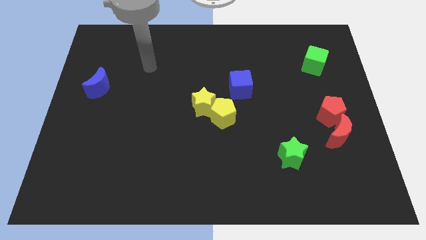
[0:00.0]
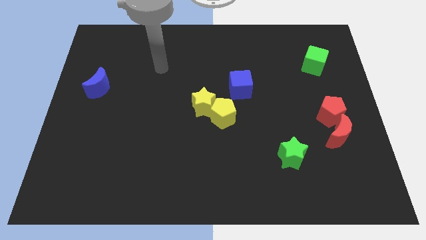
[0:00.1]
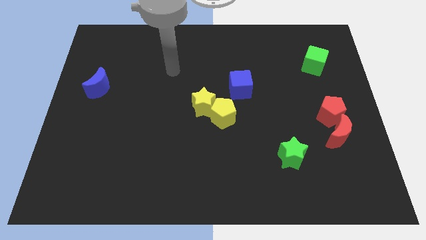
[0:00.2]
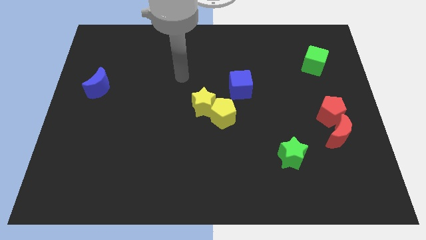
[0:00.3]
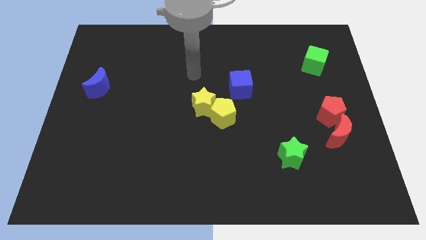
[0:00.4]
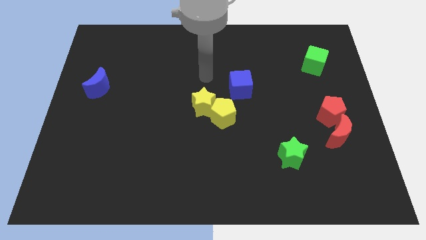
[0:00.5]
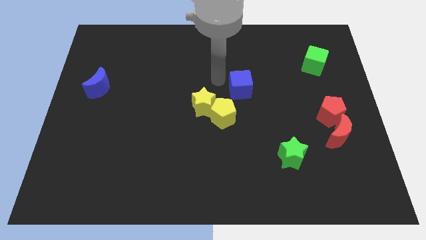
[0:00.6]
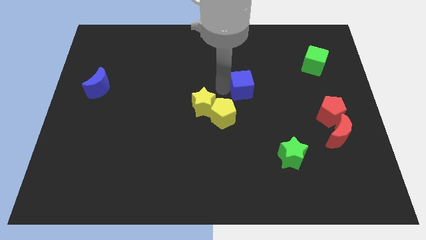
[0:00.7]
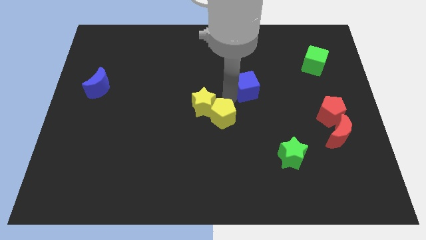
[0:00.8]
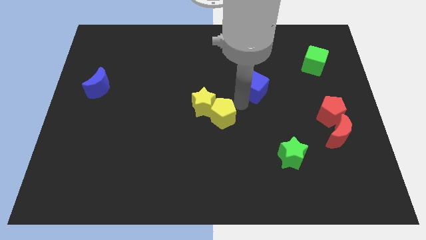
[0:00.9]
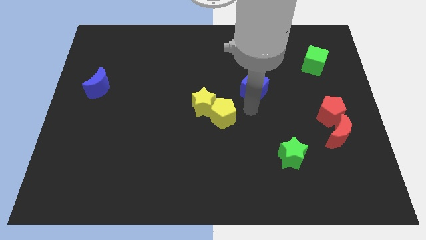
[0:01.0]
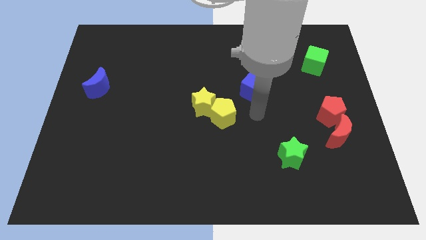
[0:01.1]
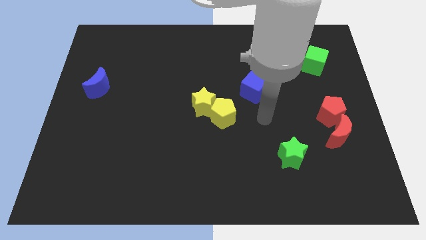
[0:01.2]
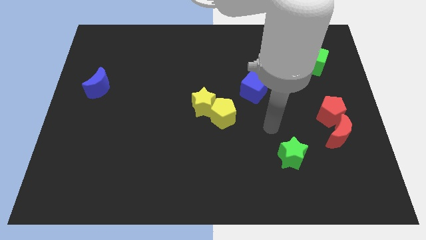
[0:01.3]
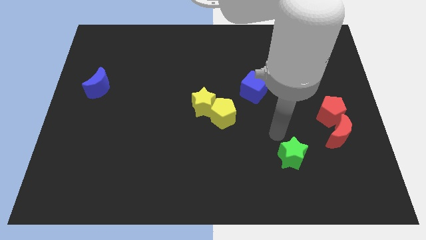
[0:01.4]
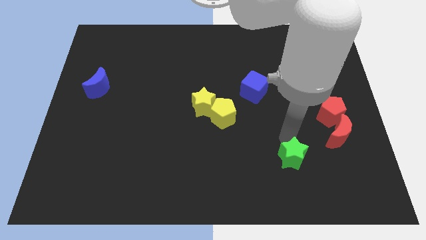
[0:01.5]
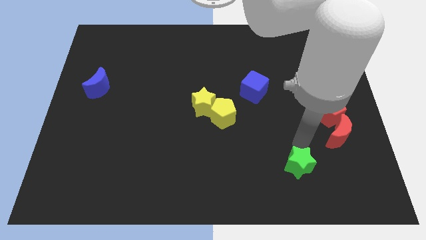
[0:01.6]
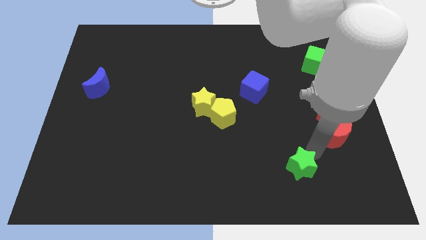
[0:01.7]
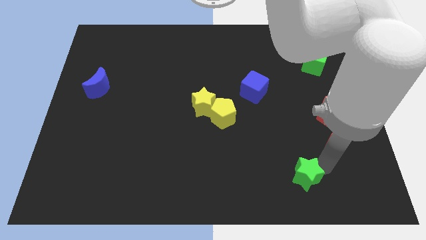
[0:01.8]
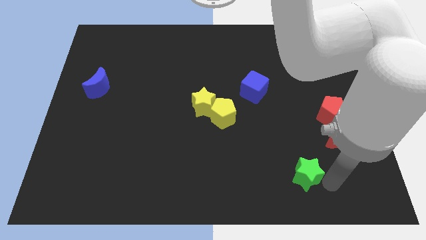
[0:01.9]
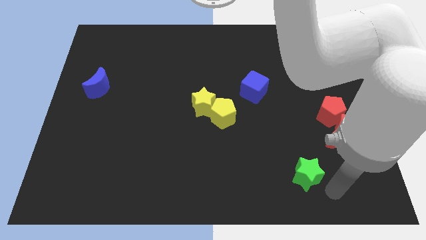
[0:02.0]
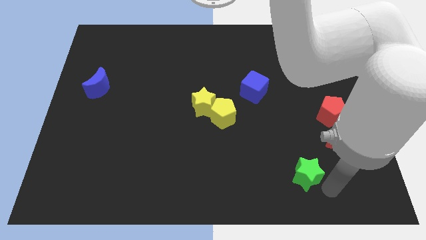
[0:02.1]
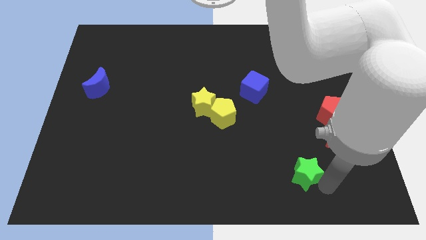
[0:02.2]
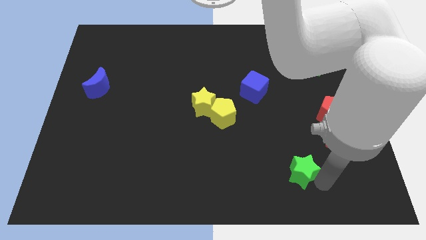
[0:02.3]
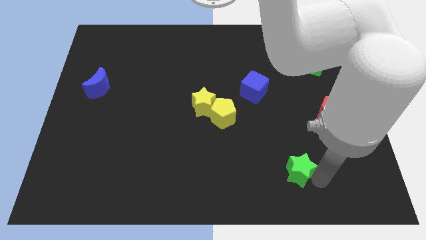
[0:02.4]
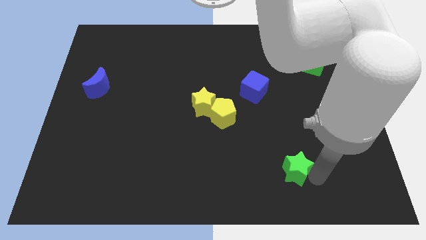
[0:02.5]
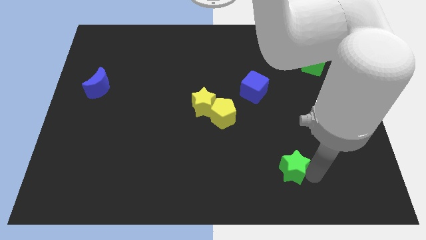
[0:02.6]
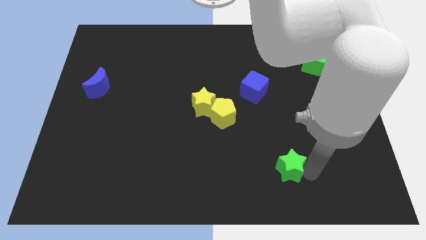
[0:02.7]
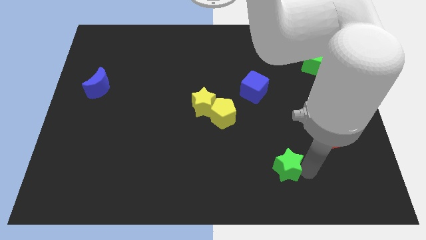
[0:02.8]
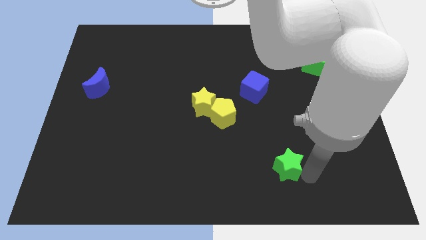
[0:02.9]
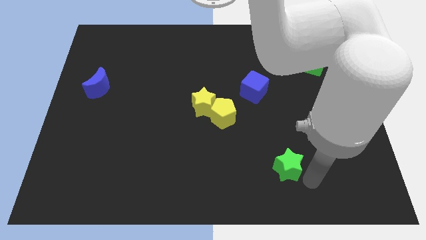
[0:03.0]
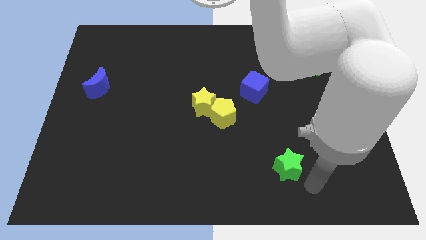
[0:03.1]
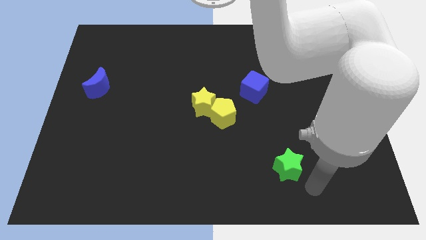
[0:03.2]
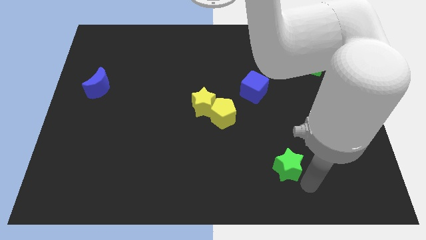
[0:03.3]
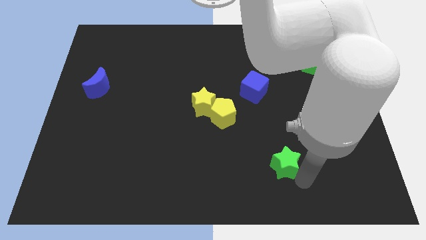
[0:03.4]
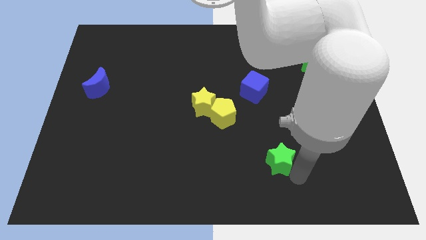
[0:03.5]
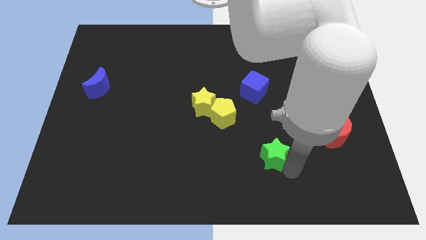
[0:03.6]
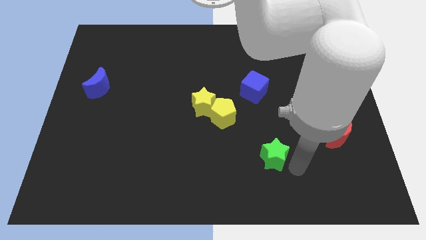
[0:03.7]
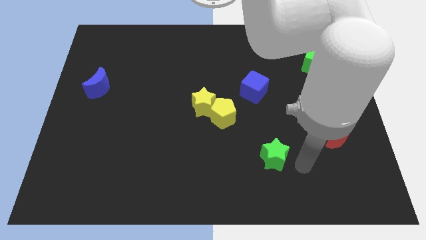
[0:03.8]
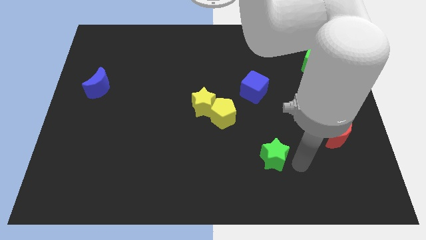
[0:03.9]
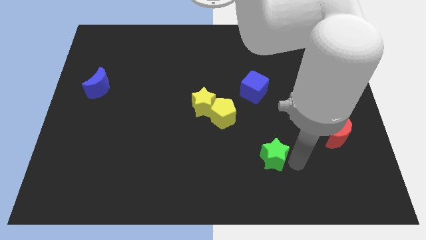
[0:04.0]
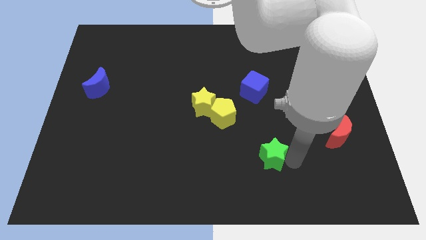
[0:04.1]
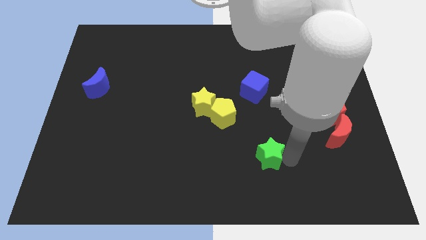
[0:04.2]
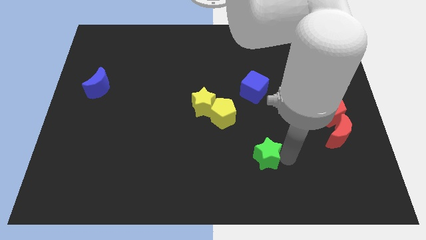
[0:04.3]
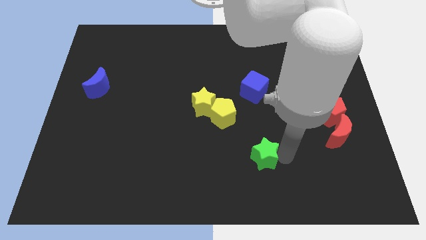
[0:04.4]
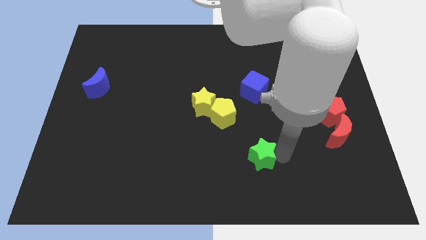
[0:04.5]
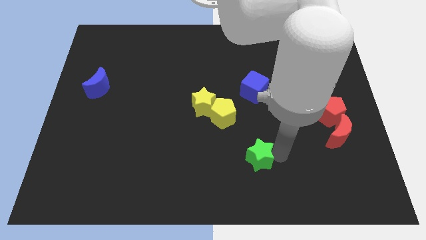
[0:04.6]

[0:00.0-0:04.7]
move the green star slightly to the left

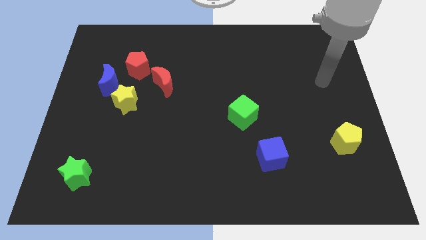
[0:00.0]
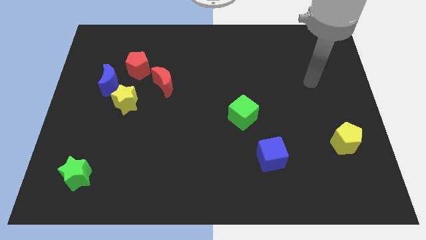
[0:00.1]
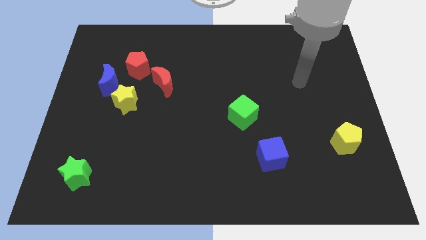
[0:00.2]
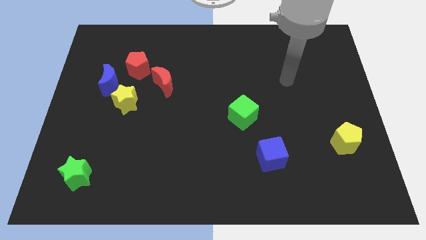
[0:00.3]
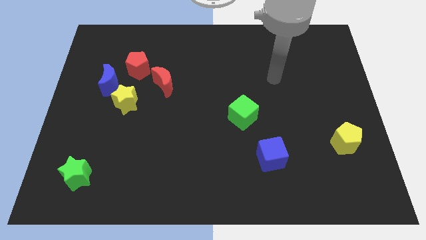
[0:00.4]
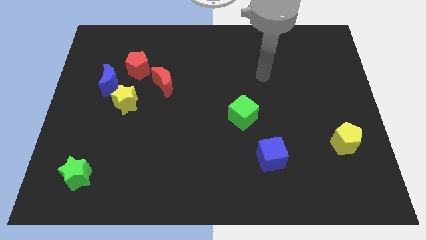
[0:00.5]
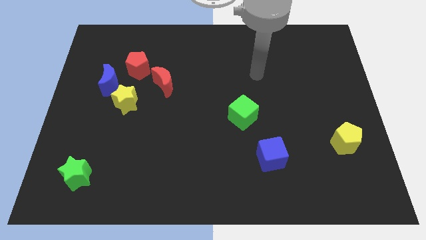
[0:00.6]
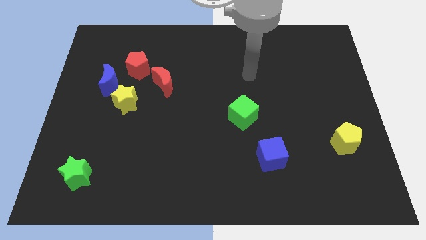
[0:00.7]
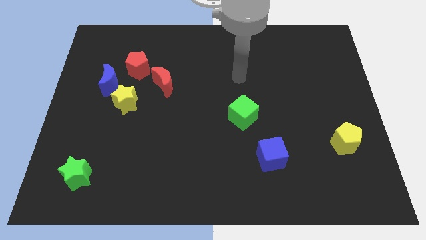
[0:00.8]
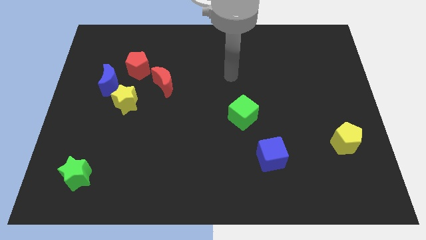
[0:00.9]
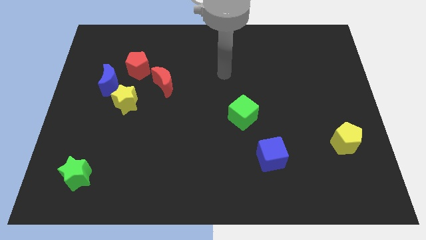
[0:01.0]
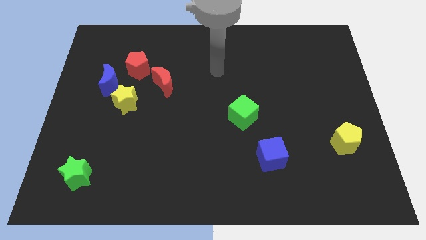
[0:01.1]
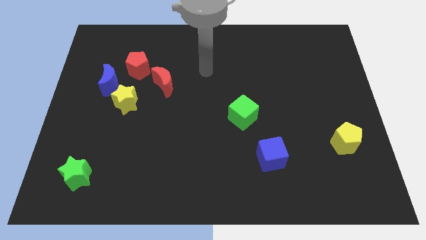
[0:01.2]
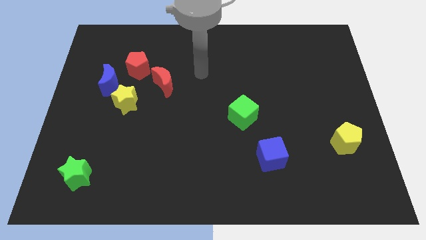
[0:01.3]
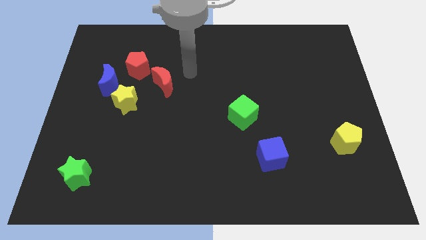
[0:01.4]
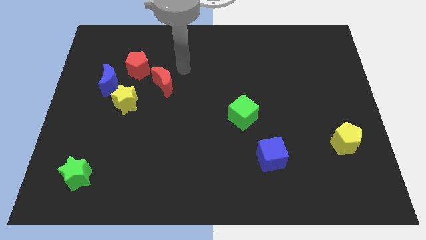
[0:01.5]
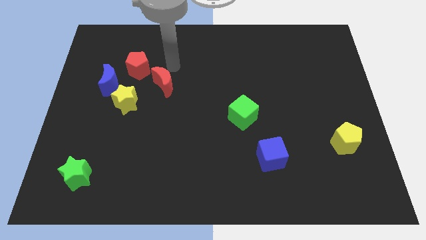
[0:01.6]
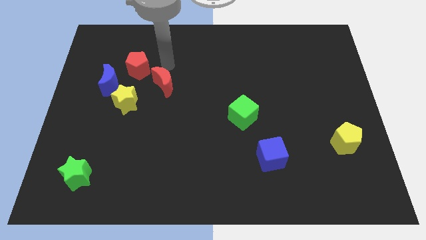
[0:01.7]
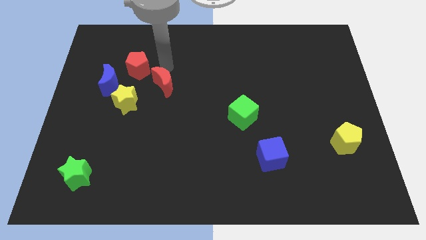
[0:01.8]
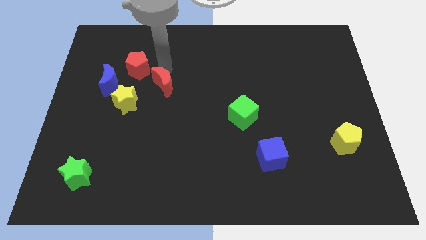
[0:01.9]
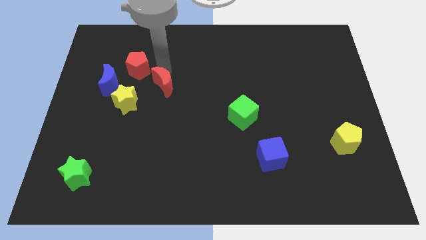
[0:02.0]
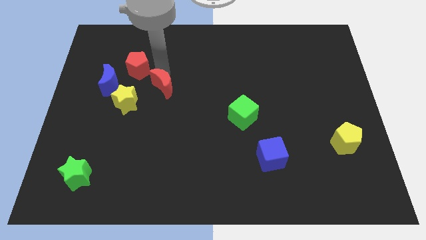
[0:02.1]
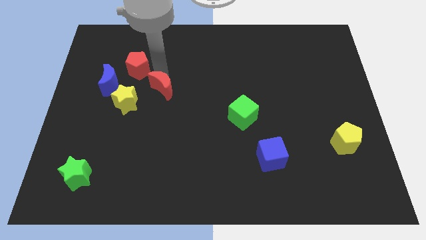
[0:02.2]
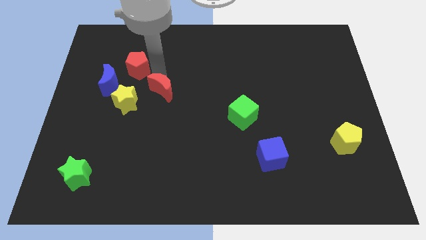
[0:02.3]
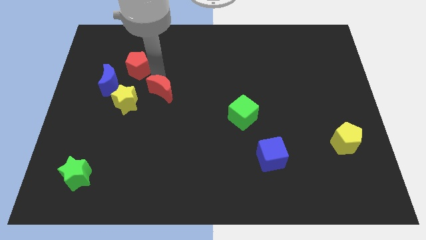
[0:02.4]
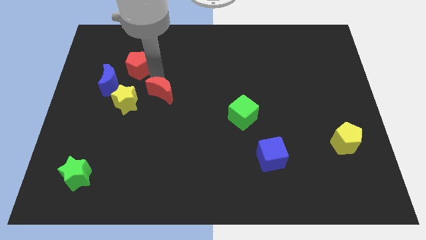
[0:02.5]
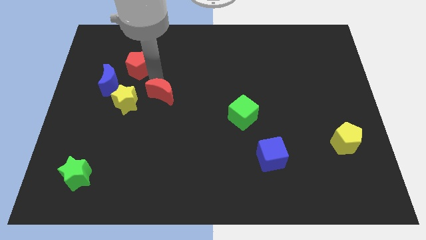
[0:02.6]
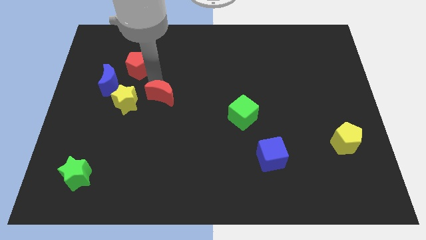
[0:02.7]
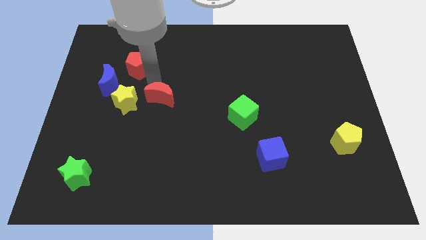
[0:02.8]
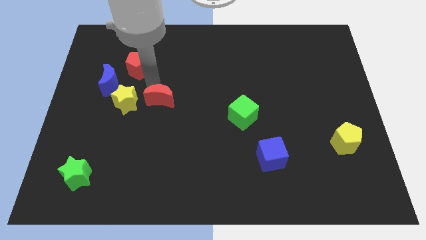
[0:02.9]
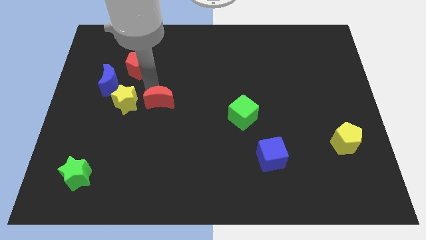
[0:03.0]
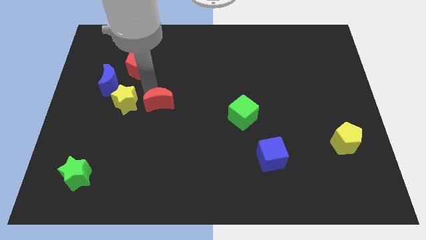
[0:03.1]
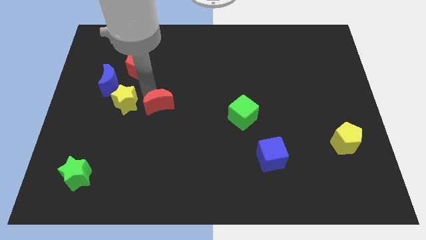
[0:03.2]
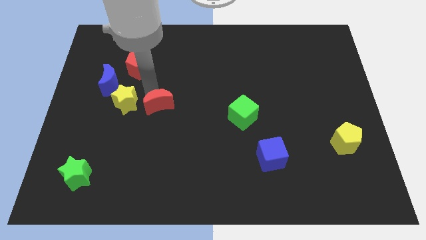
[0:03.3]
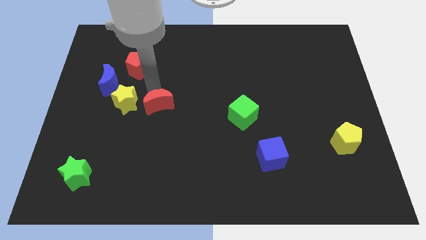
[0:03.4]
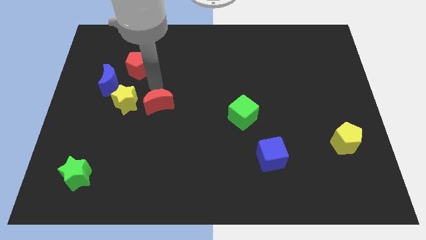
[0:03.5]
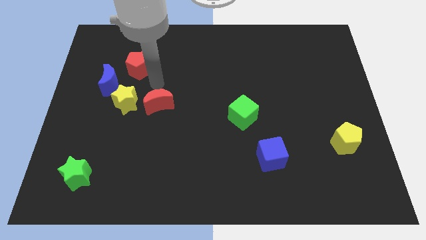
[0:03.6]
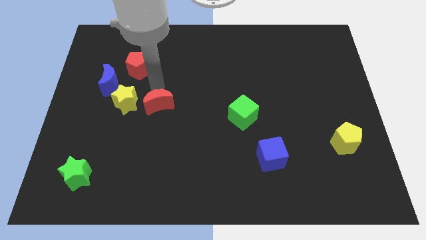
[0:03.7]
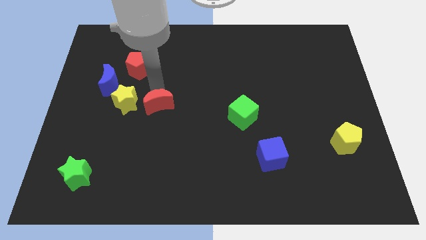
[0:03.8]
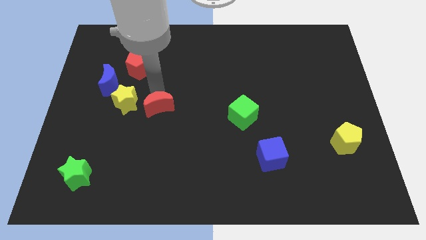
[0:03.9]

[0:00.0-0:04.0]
slide the red moon a bit down
